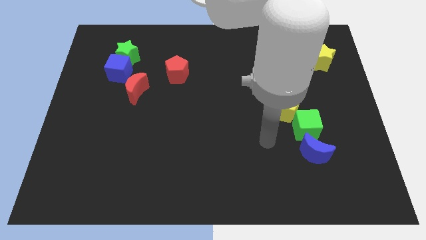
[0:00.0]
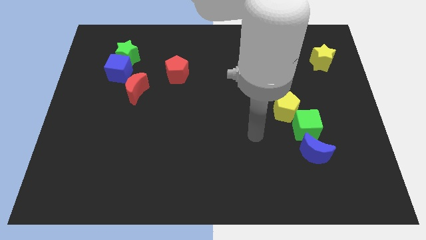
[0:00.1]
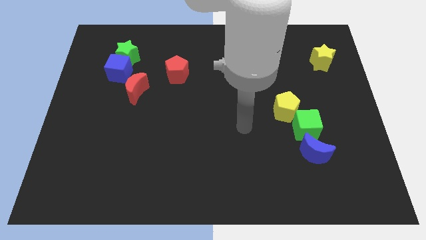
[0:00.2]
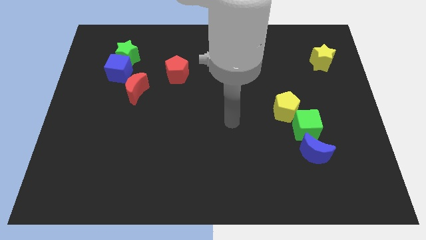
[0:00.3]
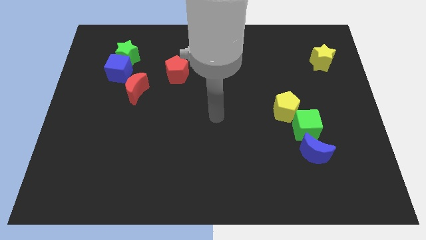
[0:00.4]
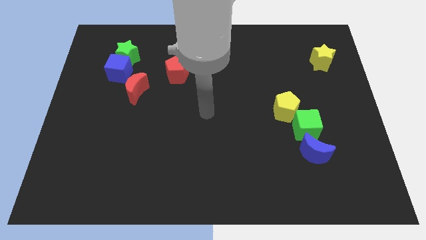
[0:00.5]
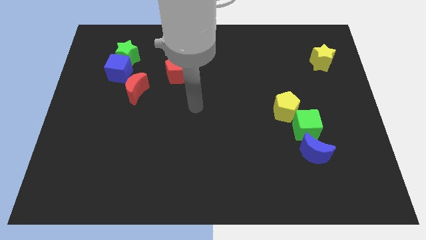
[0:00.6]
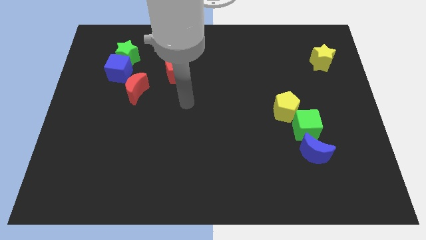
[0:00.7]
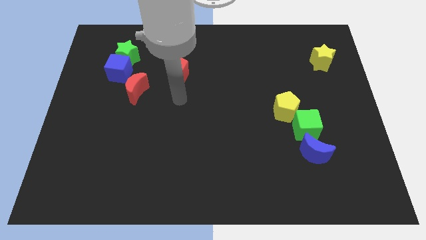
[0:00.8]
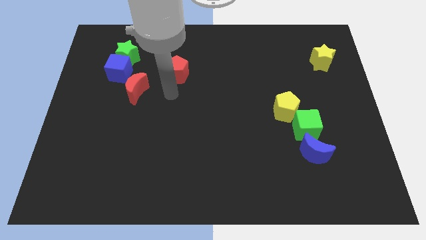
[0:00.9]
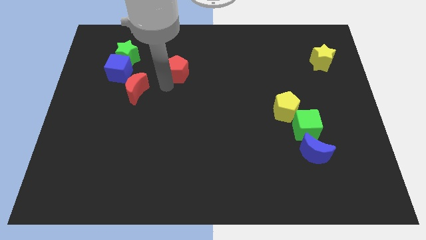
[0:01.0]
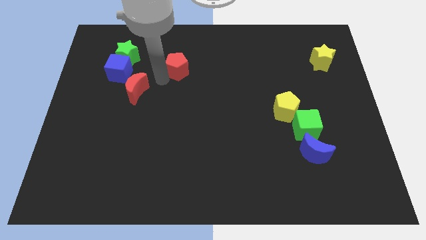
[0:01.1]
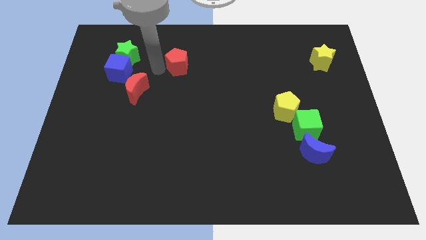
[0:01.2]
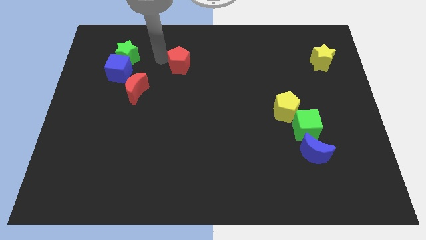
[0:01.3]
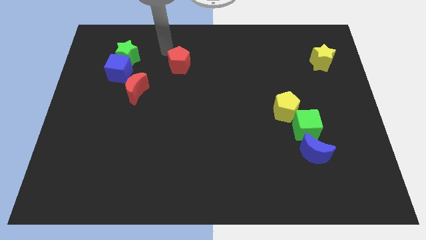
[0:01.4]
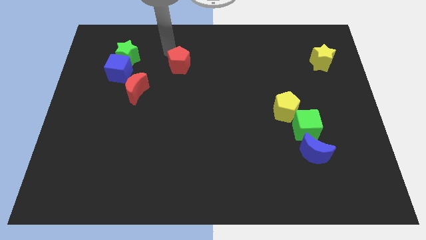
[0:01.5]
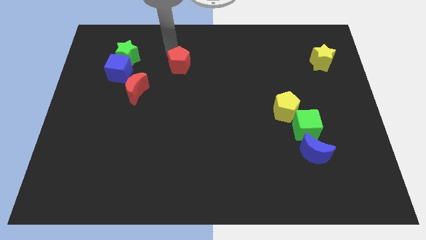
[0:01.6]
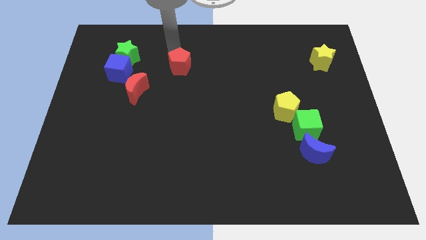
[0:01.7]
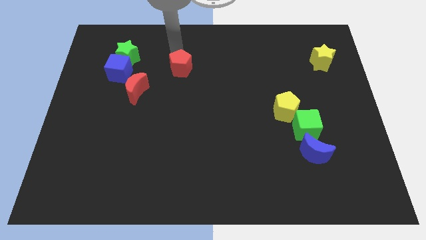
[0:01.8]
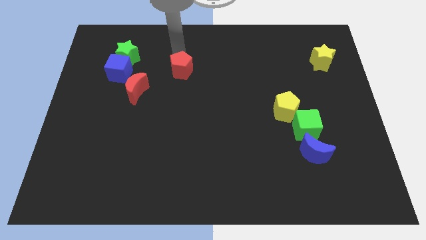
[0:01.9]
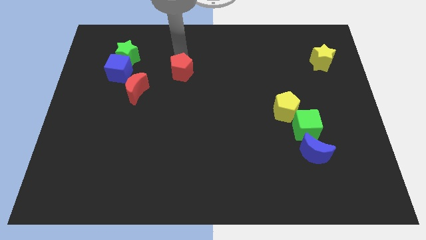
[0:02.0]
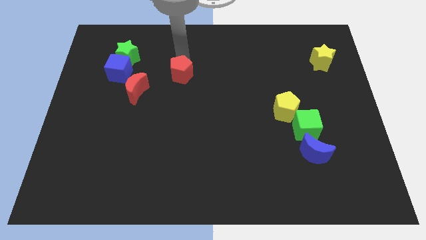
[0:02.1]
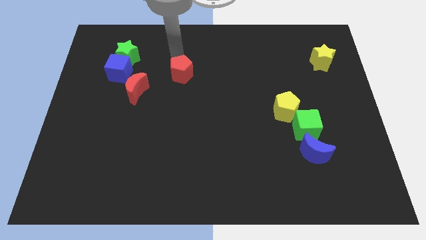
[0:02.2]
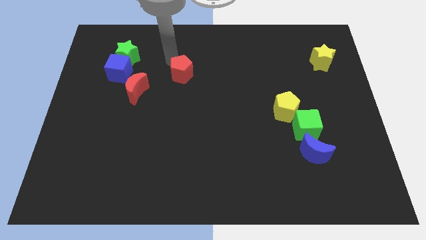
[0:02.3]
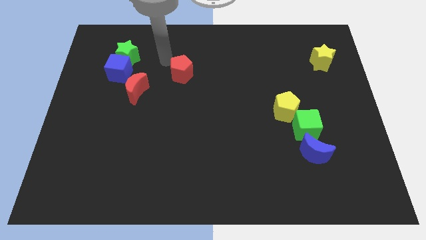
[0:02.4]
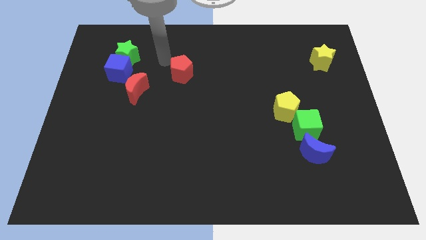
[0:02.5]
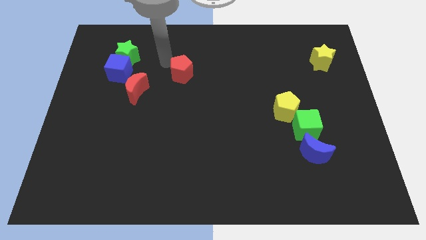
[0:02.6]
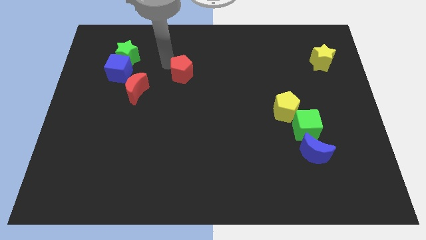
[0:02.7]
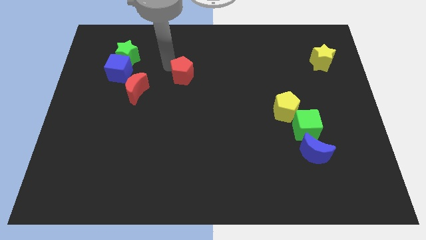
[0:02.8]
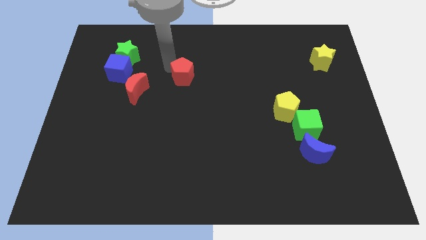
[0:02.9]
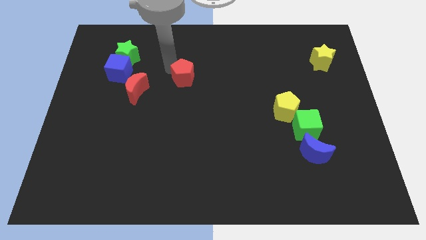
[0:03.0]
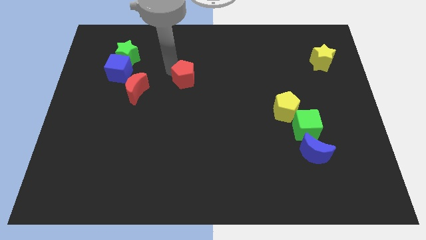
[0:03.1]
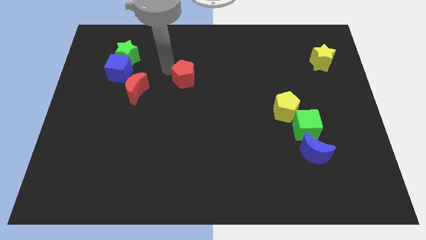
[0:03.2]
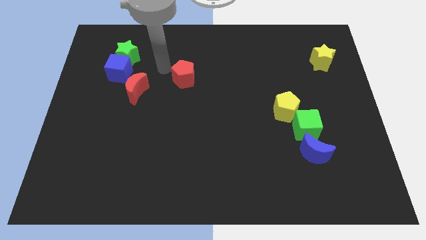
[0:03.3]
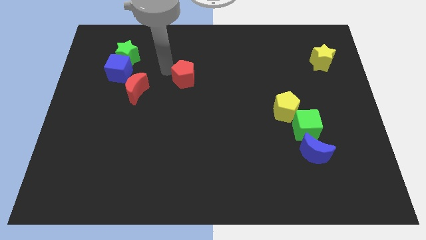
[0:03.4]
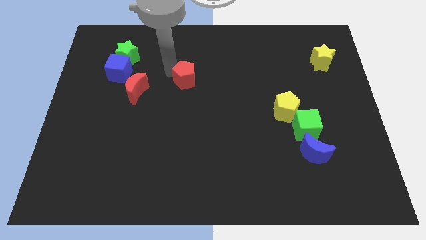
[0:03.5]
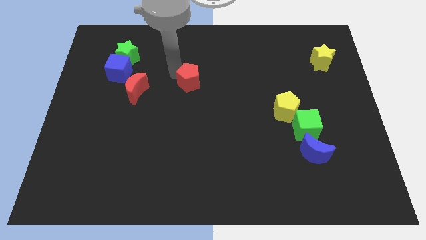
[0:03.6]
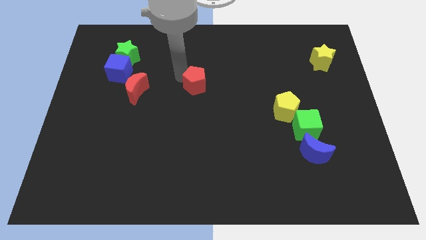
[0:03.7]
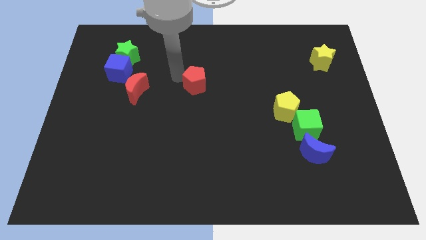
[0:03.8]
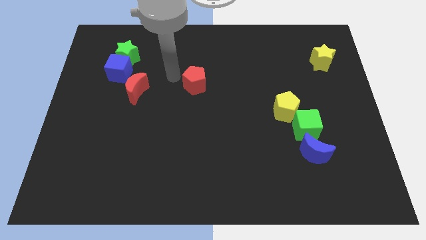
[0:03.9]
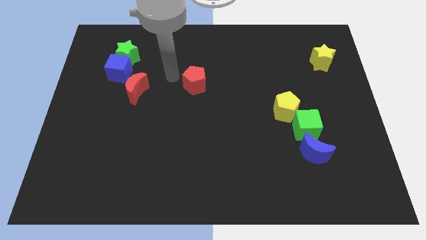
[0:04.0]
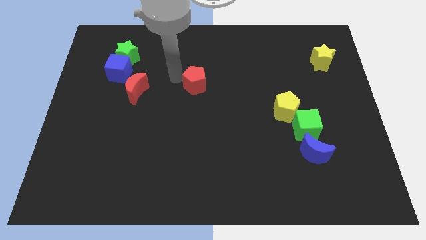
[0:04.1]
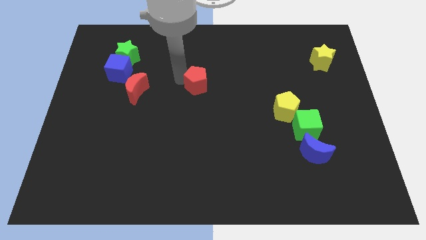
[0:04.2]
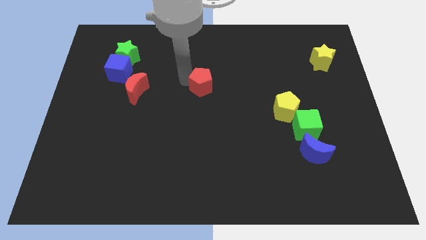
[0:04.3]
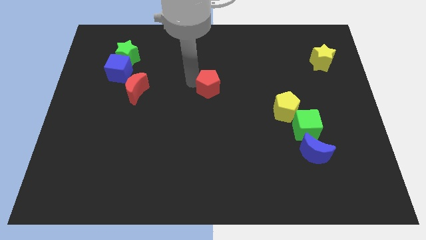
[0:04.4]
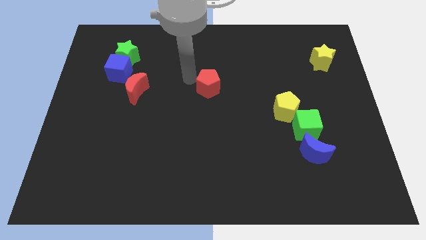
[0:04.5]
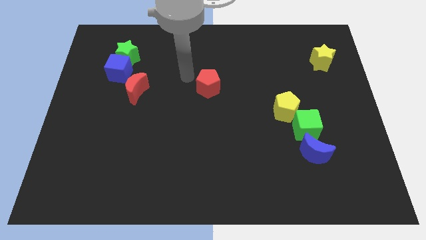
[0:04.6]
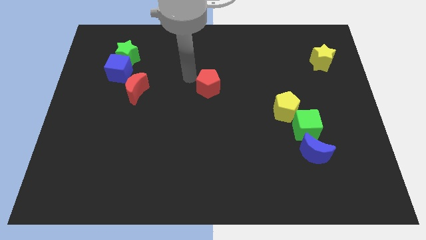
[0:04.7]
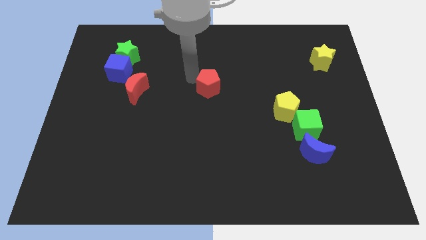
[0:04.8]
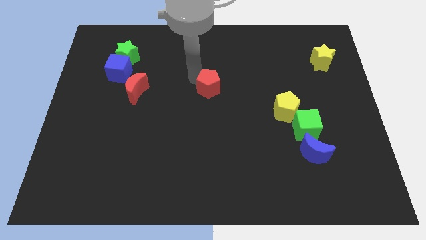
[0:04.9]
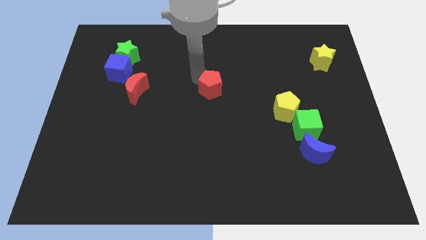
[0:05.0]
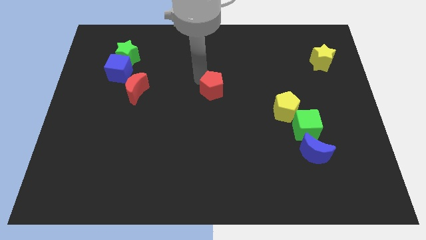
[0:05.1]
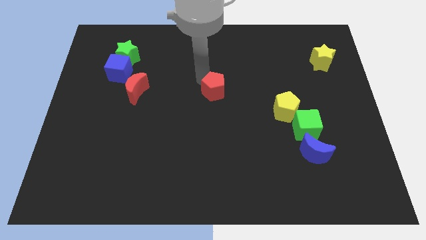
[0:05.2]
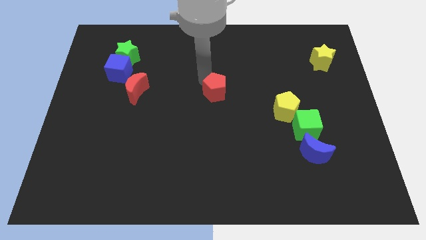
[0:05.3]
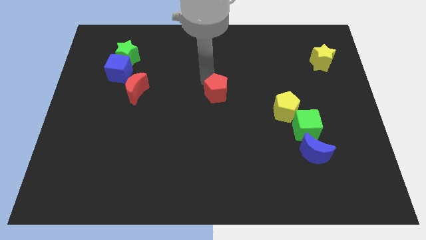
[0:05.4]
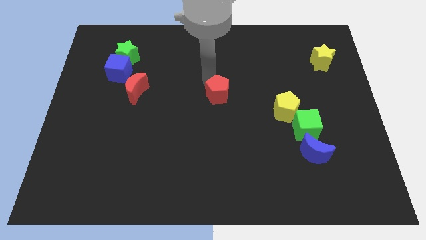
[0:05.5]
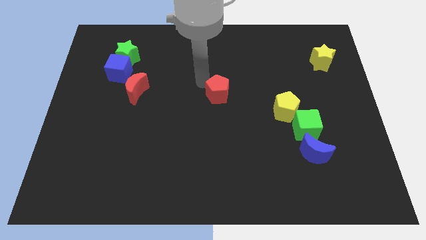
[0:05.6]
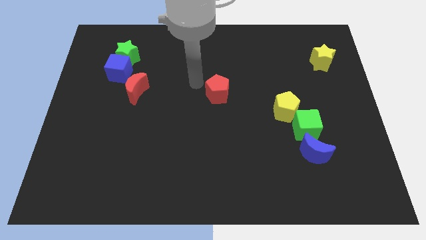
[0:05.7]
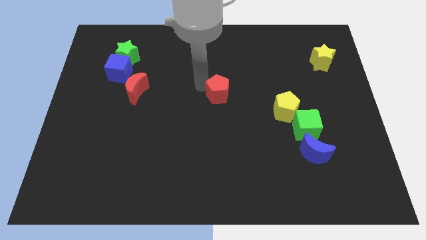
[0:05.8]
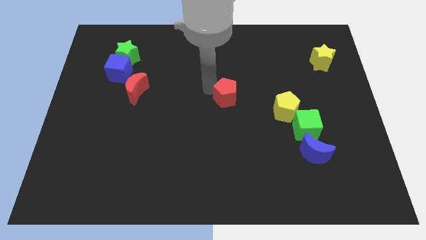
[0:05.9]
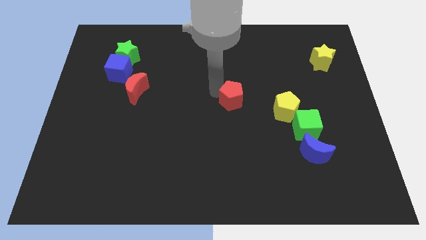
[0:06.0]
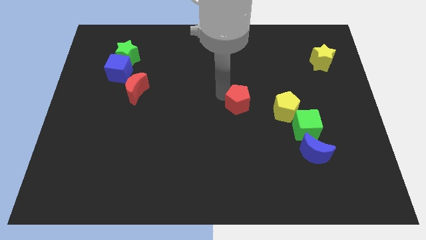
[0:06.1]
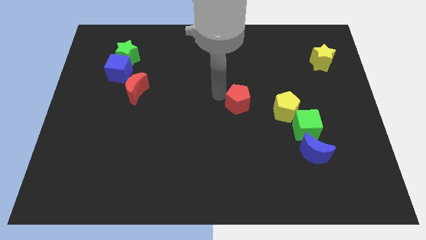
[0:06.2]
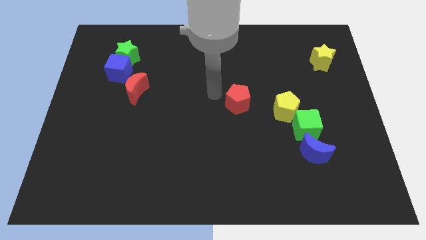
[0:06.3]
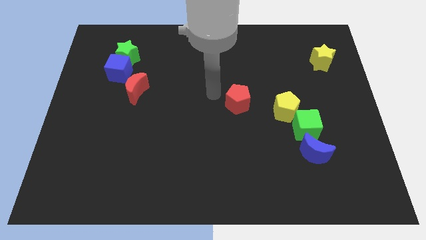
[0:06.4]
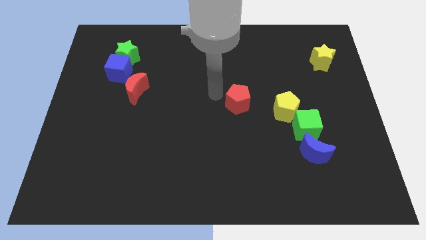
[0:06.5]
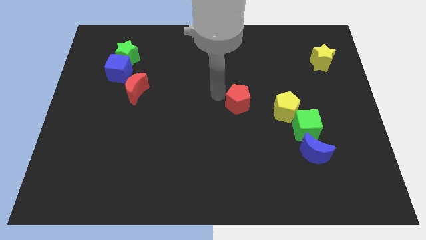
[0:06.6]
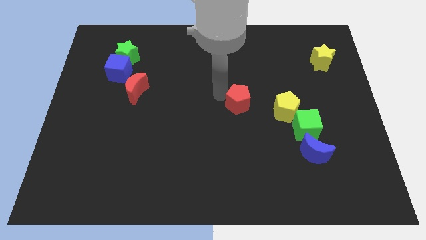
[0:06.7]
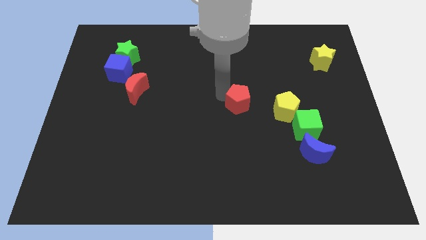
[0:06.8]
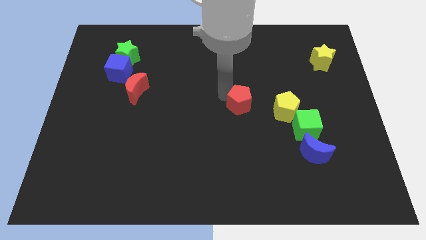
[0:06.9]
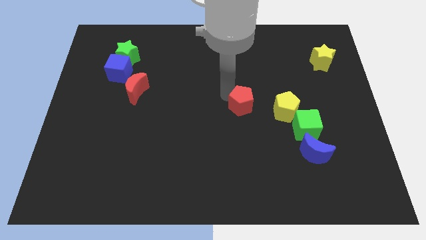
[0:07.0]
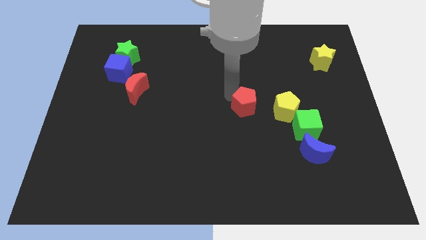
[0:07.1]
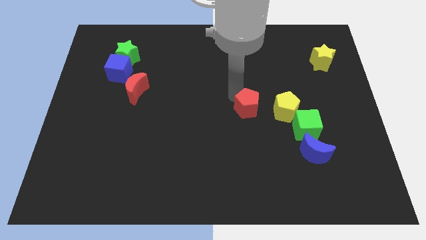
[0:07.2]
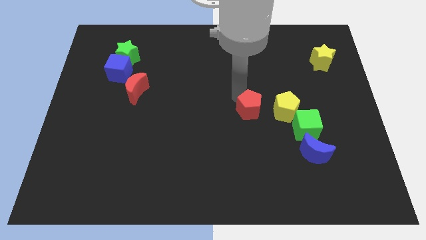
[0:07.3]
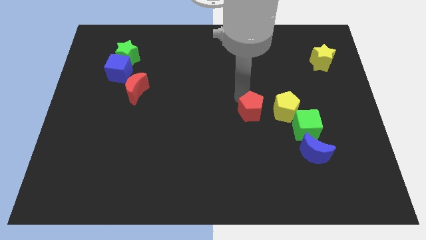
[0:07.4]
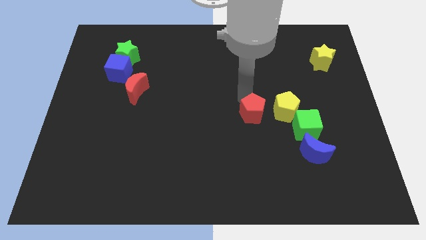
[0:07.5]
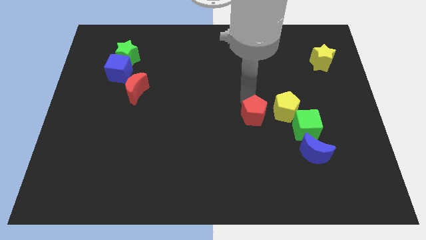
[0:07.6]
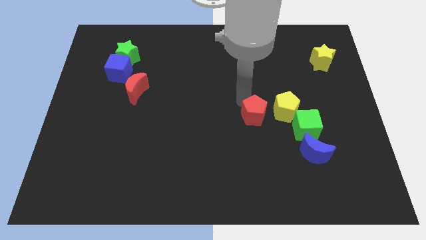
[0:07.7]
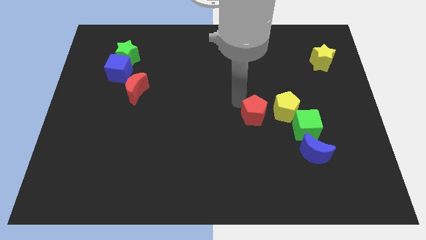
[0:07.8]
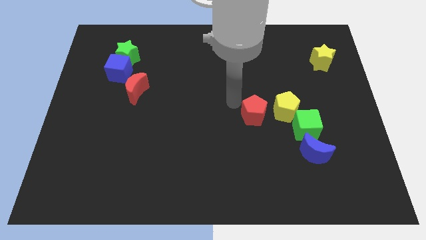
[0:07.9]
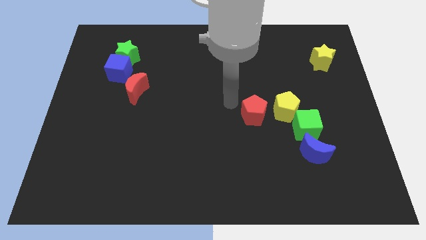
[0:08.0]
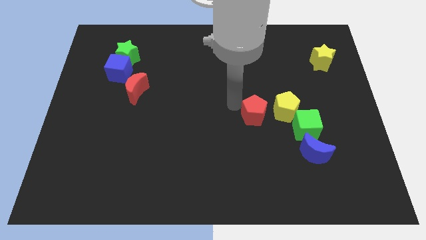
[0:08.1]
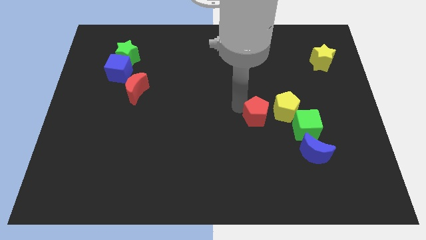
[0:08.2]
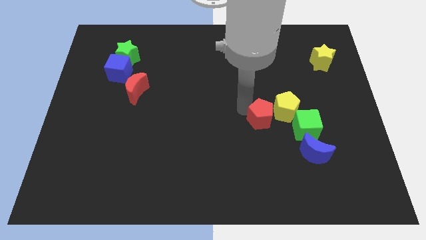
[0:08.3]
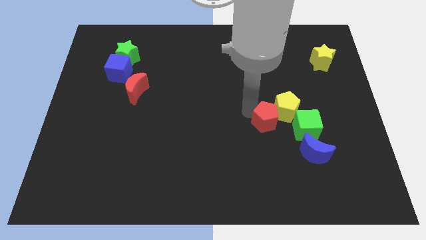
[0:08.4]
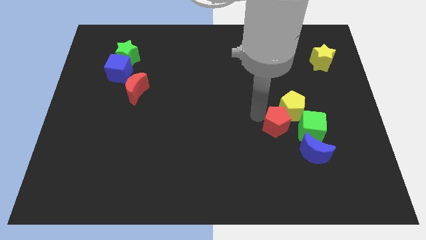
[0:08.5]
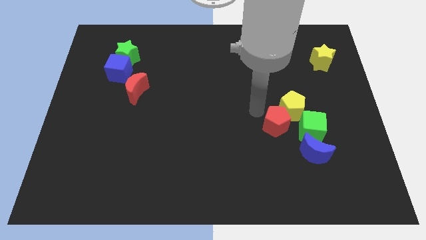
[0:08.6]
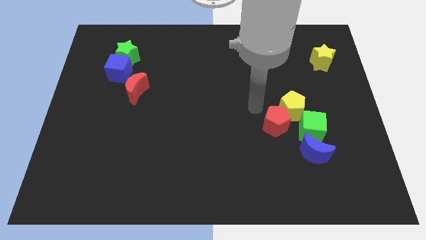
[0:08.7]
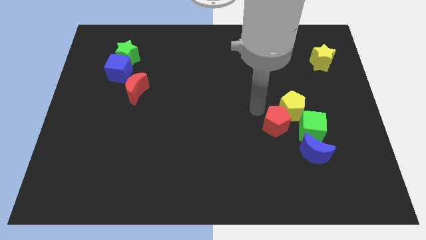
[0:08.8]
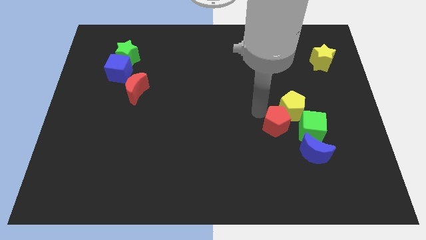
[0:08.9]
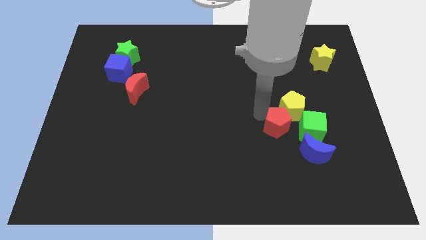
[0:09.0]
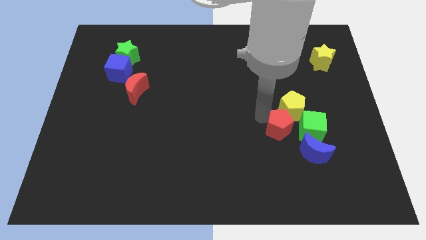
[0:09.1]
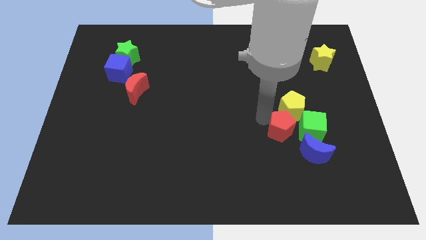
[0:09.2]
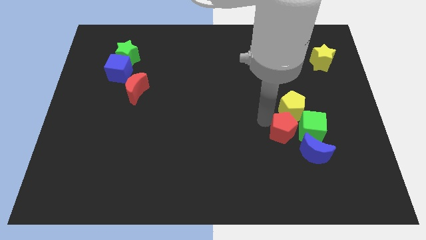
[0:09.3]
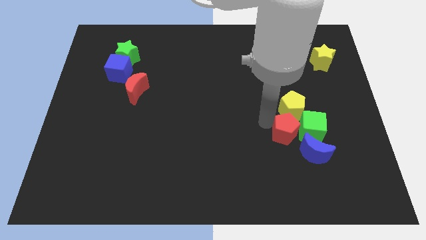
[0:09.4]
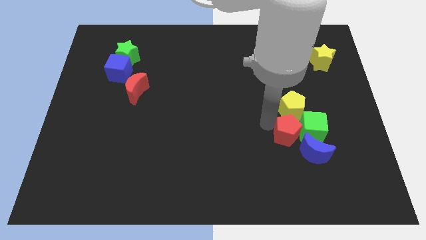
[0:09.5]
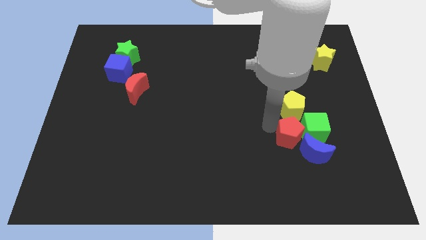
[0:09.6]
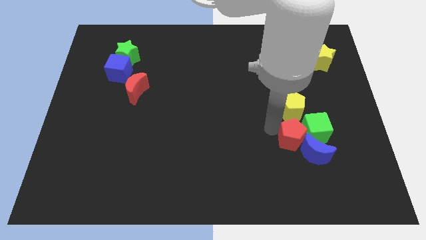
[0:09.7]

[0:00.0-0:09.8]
slide the red pentagon towards the blue moon
